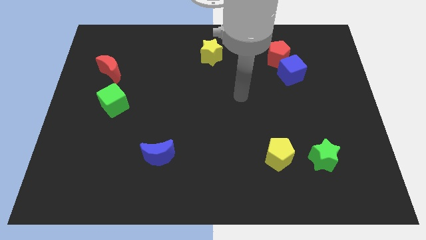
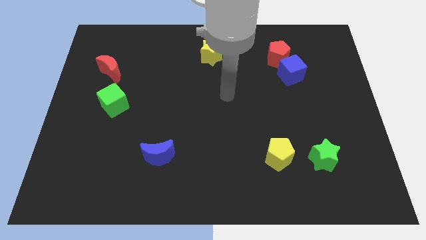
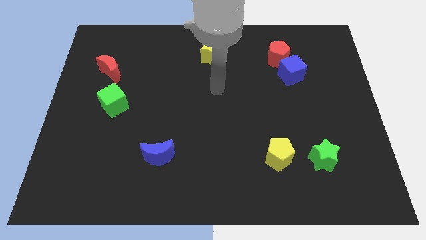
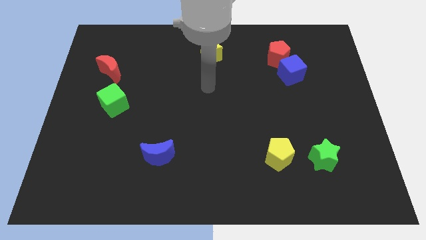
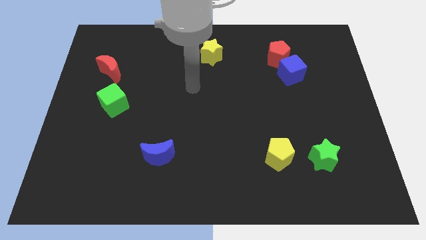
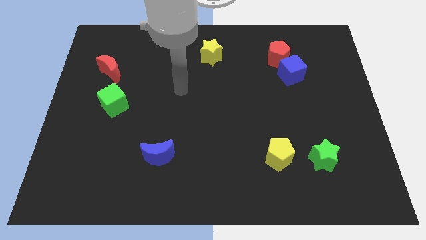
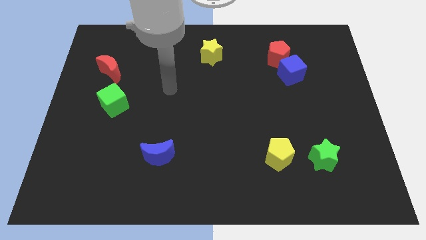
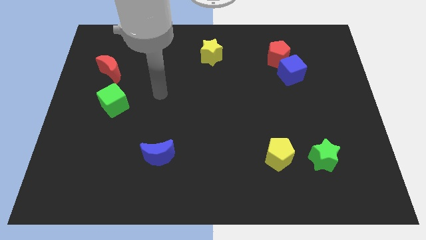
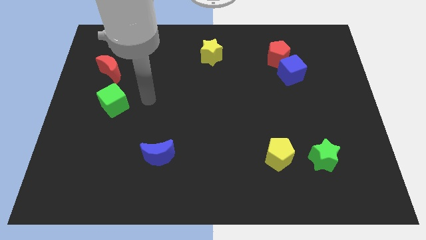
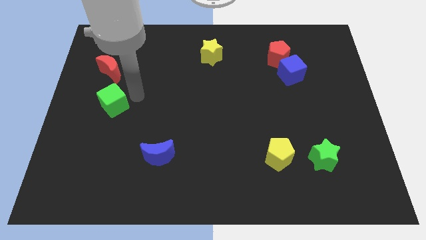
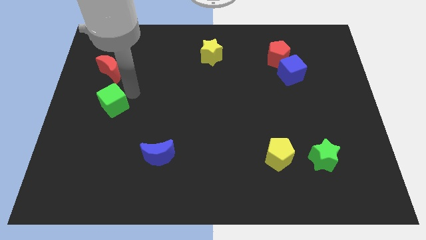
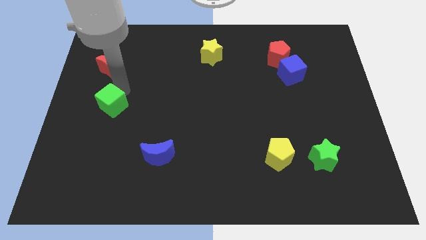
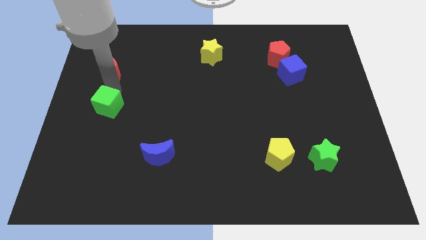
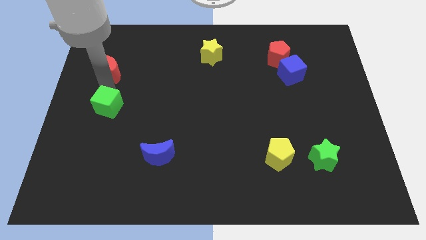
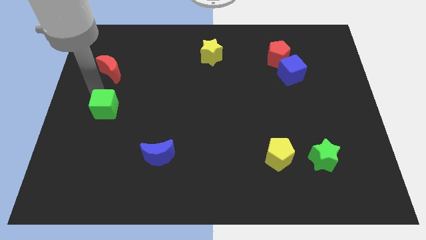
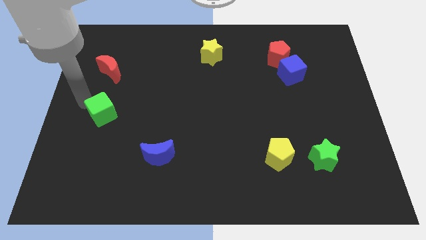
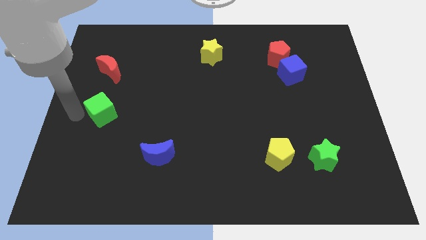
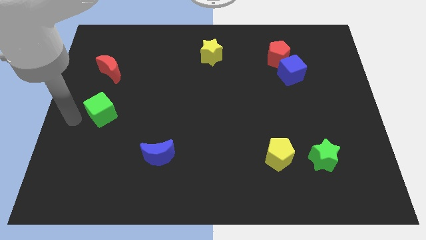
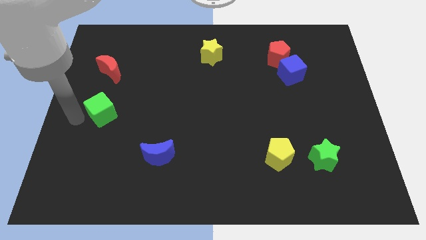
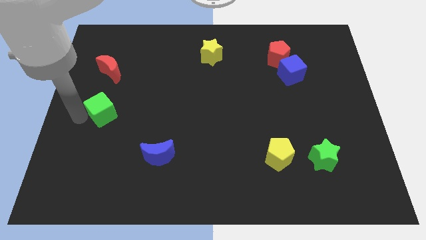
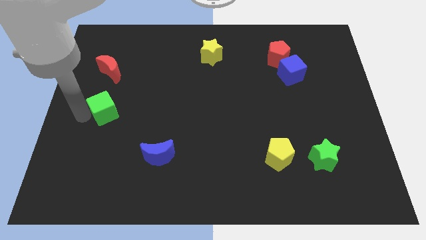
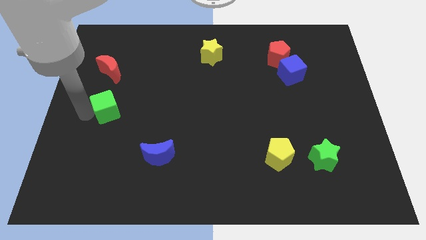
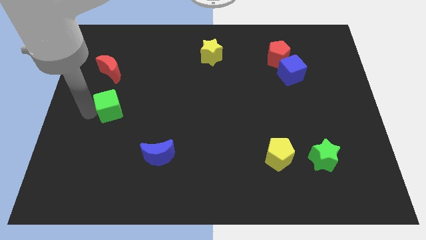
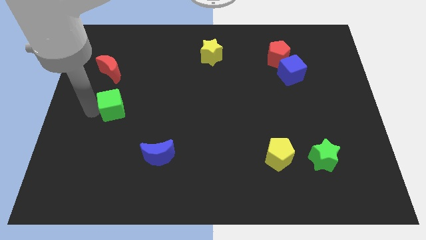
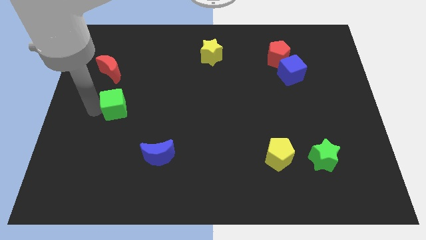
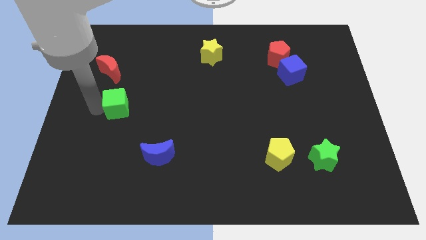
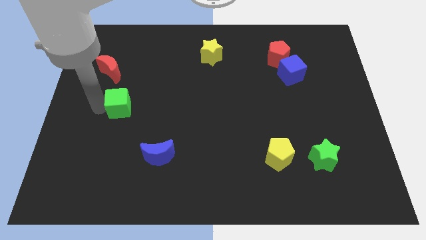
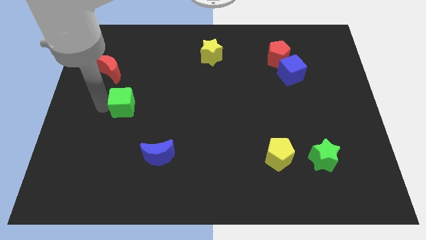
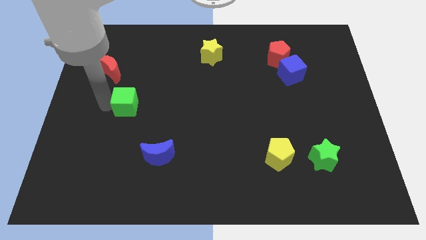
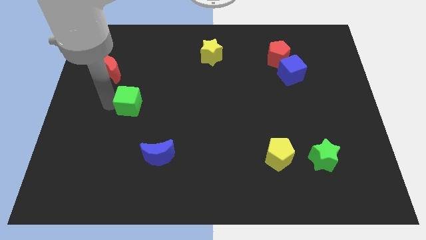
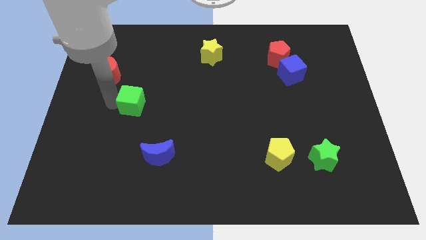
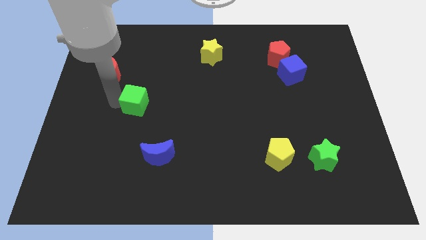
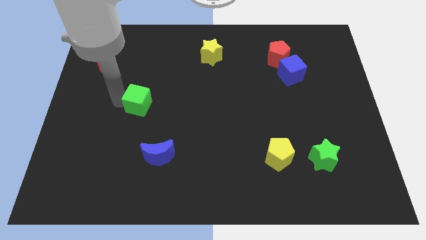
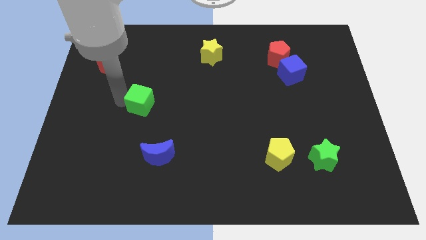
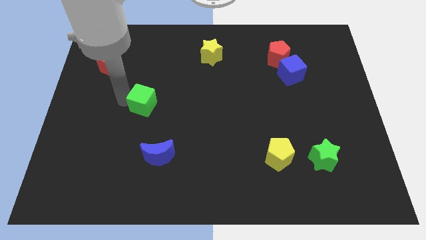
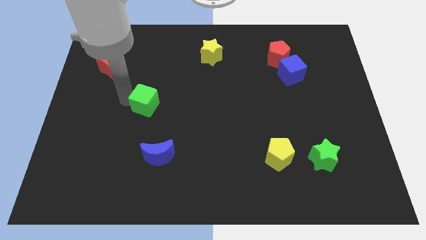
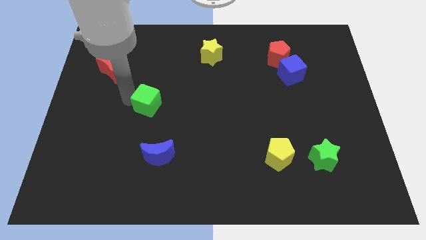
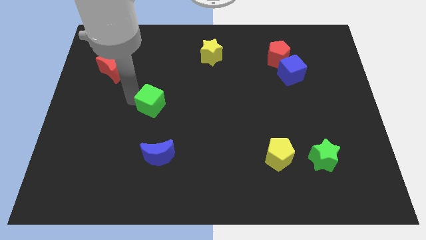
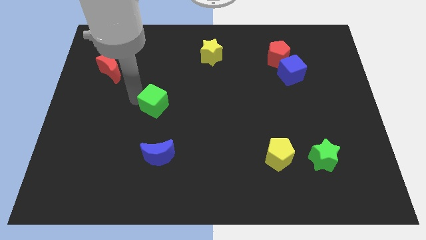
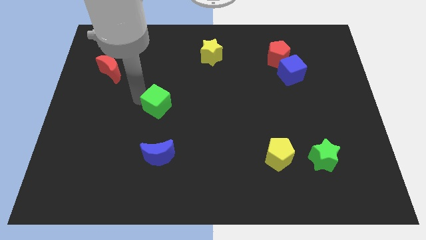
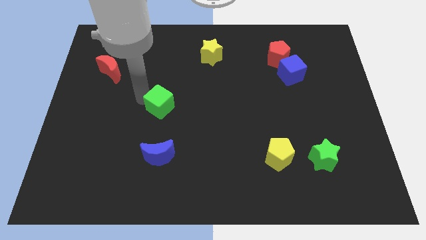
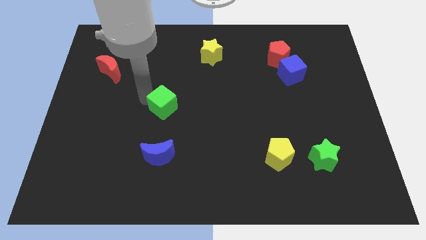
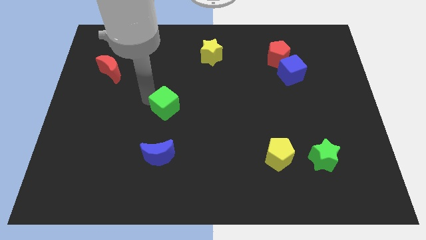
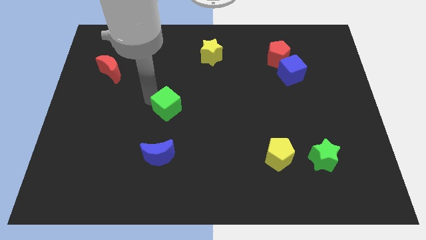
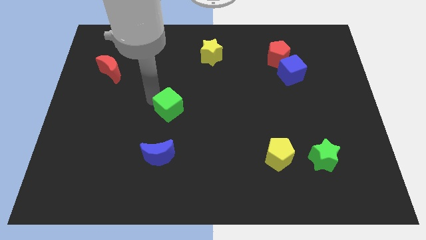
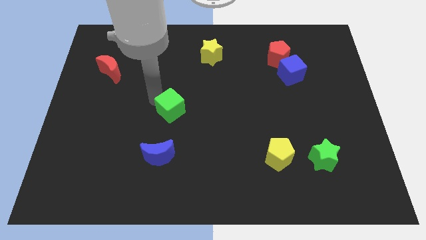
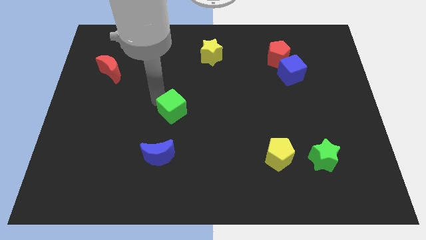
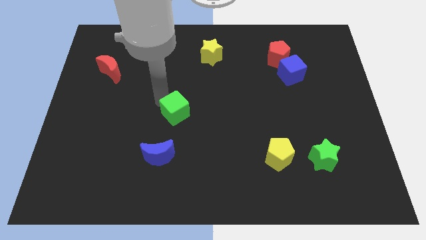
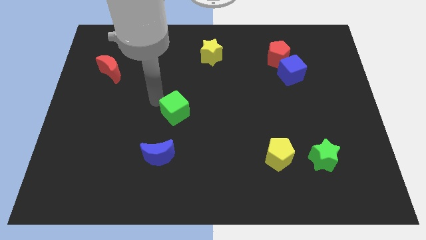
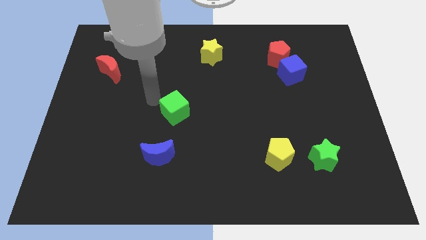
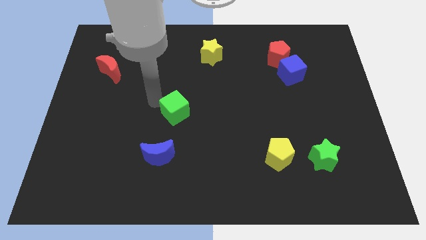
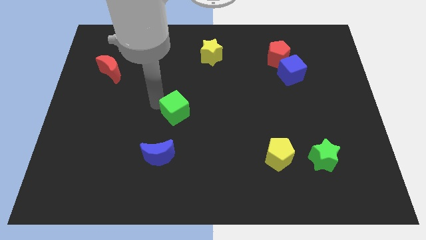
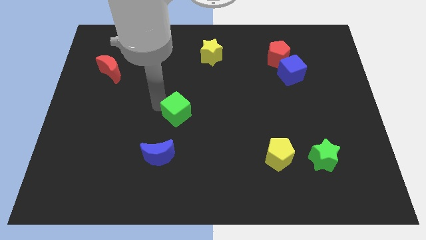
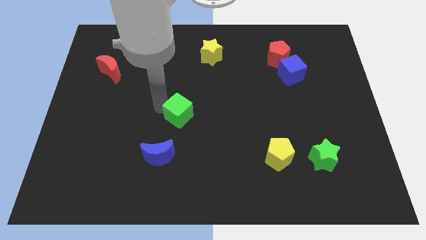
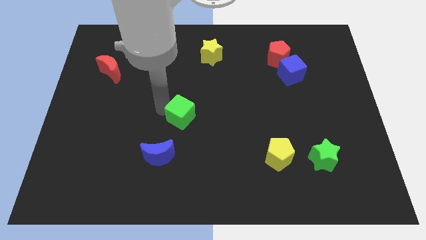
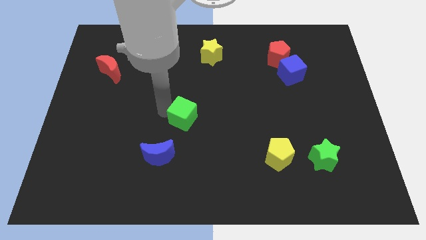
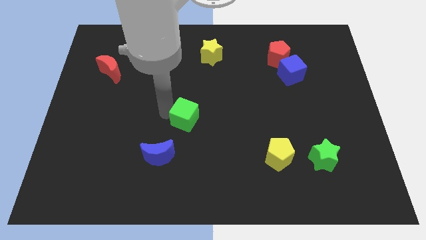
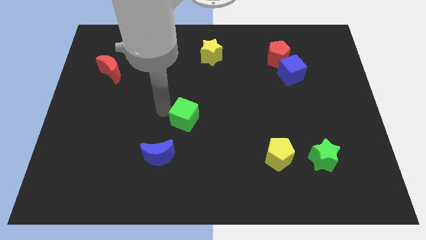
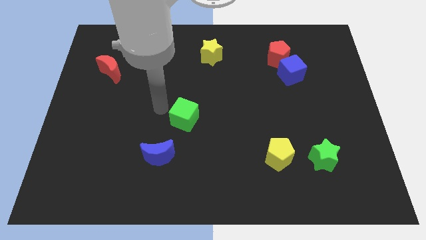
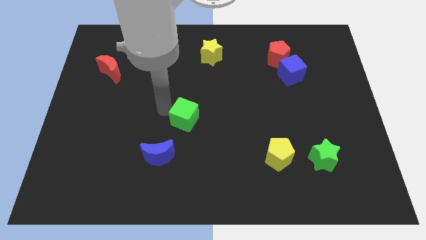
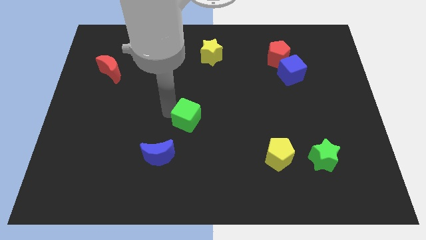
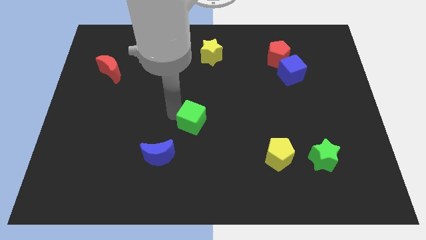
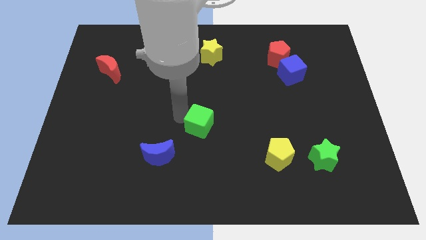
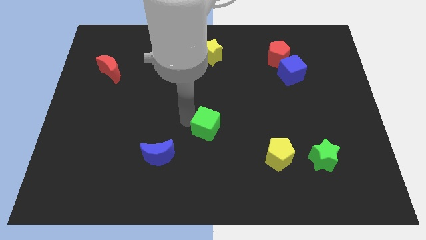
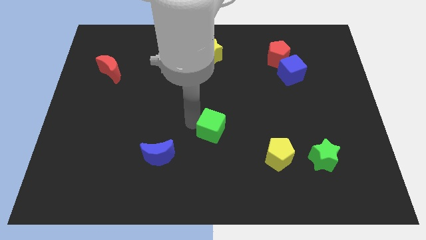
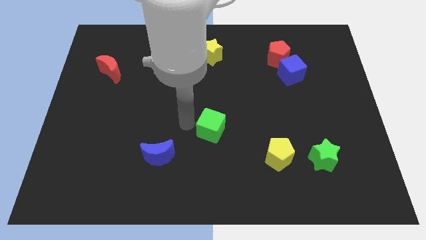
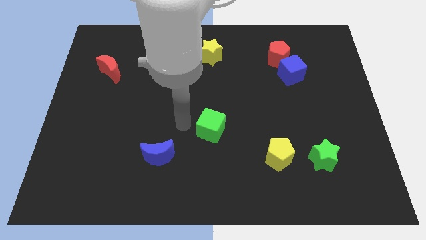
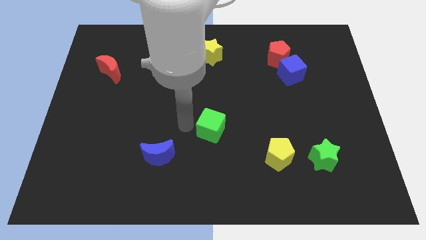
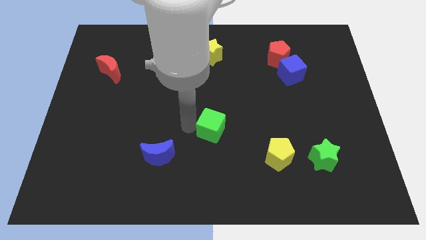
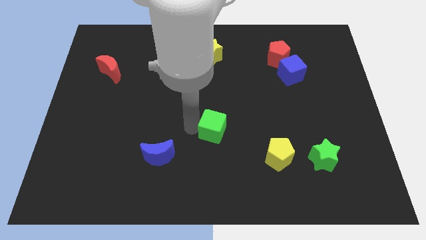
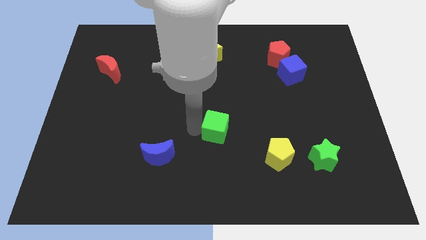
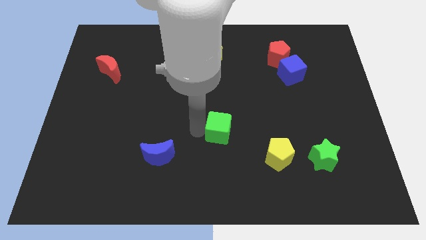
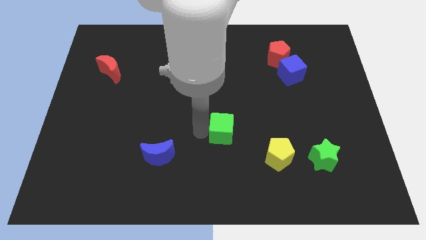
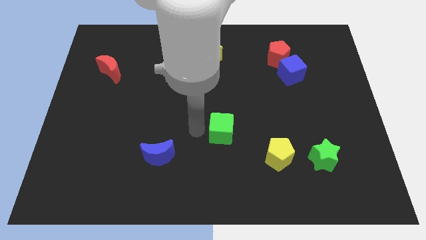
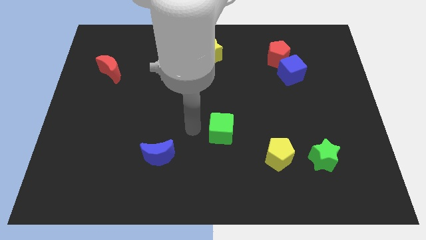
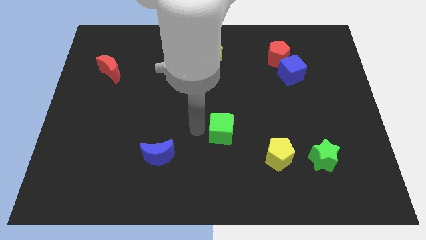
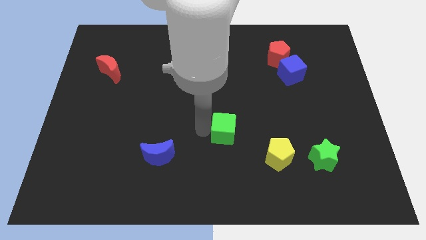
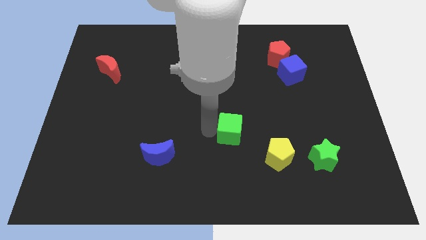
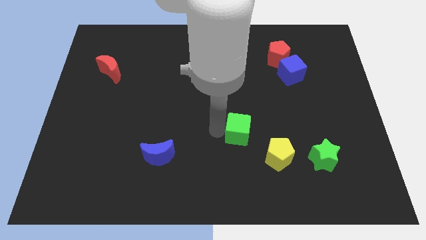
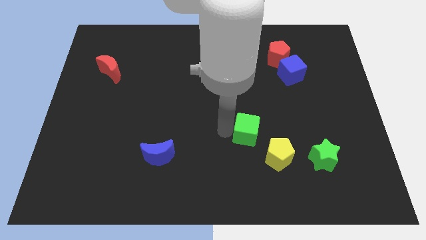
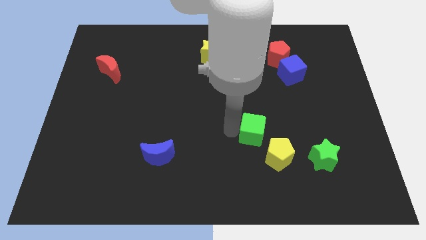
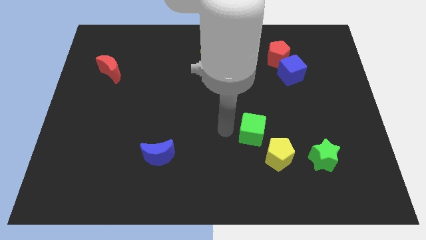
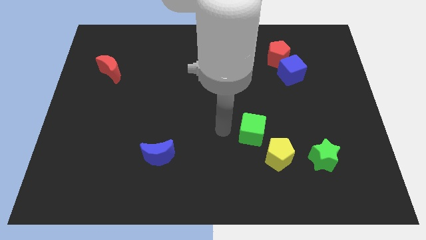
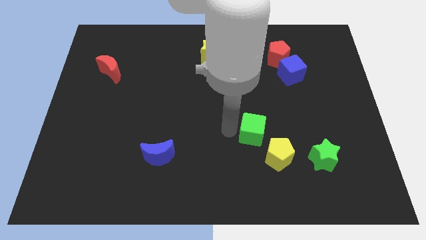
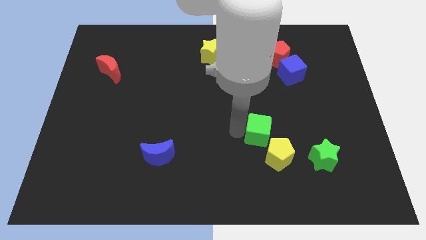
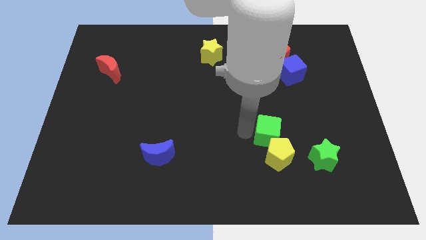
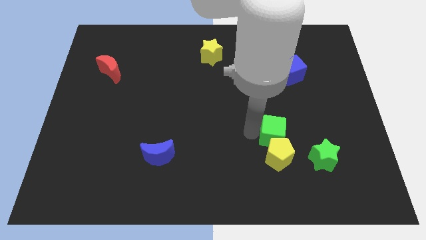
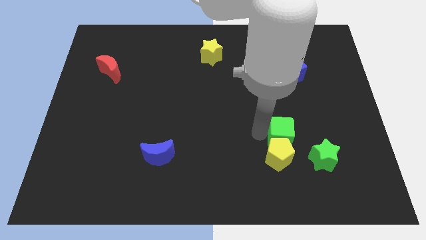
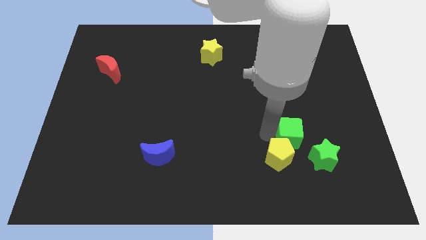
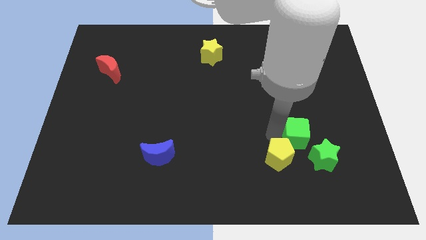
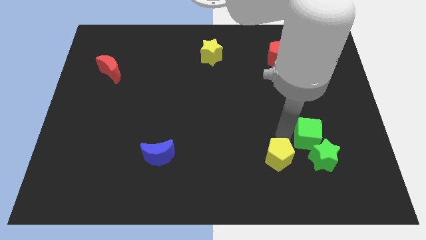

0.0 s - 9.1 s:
slide the green cube to the right side of the yellow pentagon
